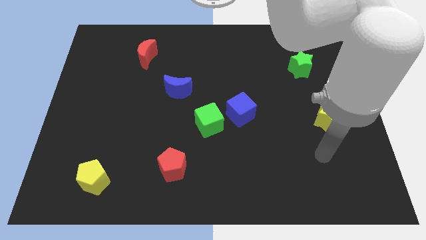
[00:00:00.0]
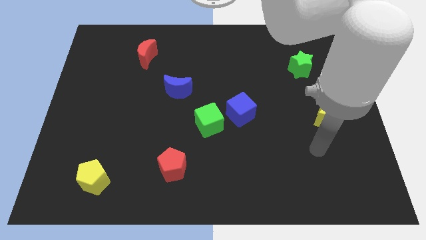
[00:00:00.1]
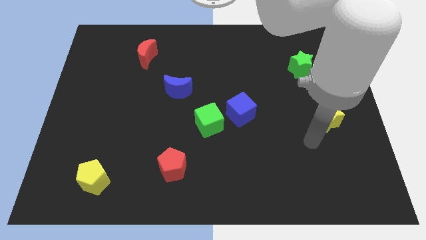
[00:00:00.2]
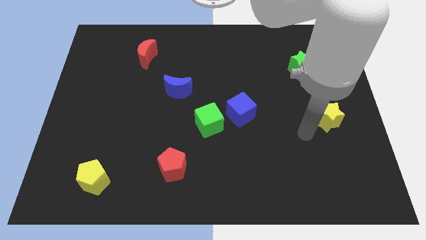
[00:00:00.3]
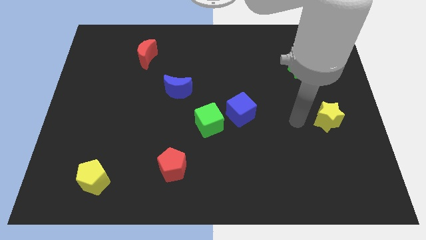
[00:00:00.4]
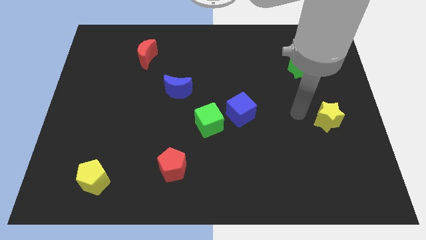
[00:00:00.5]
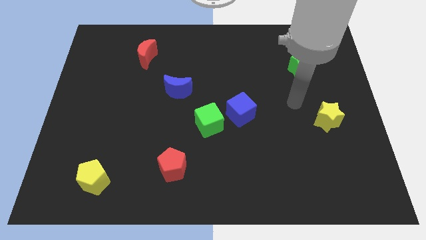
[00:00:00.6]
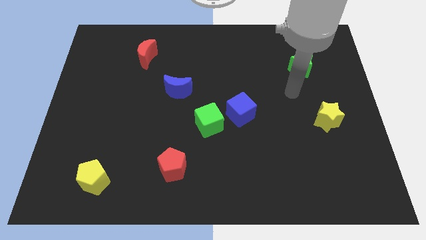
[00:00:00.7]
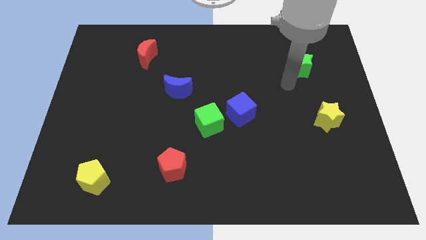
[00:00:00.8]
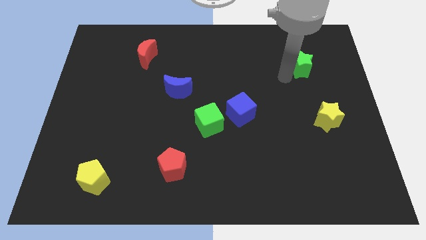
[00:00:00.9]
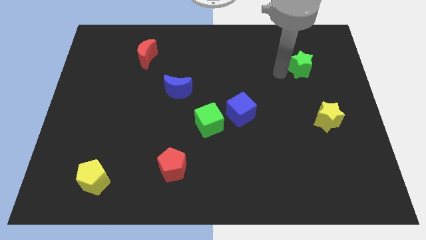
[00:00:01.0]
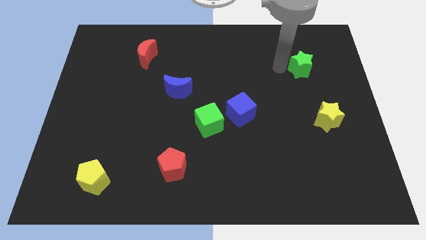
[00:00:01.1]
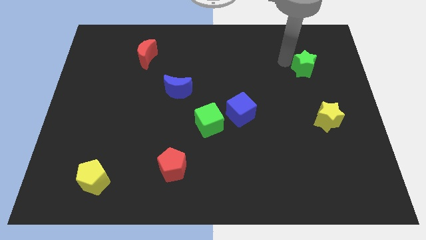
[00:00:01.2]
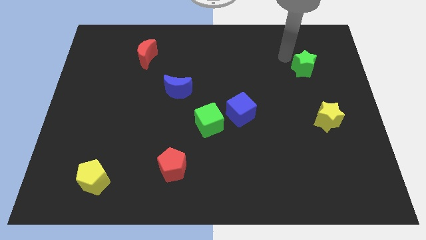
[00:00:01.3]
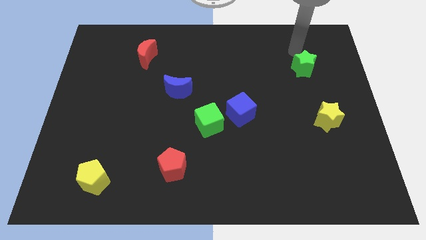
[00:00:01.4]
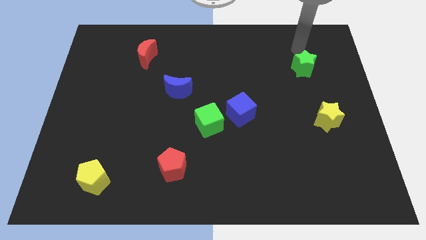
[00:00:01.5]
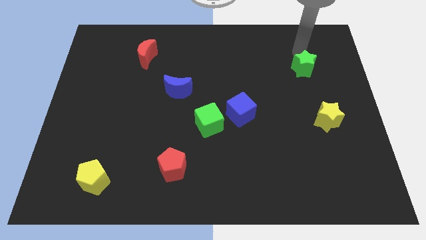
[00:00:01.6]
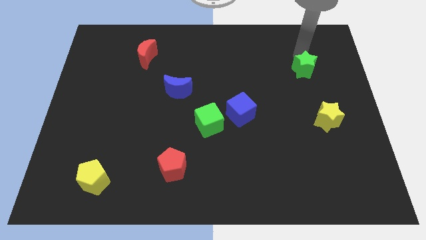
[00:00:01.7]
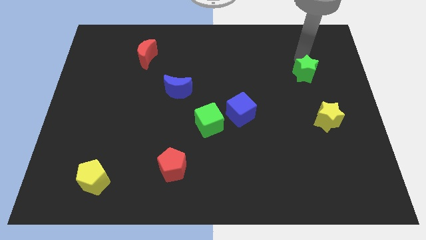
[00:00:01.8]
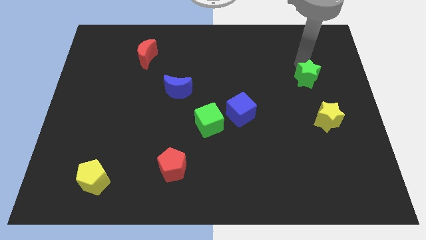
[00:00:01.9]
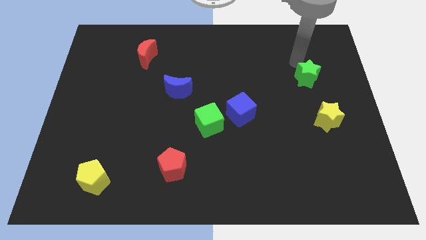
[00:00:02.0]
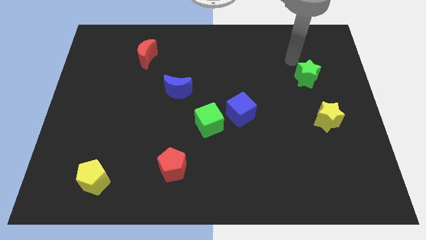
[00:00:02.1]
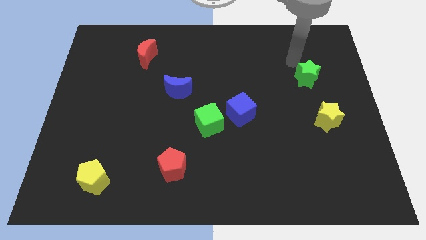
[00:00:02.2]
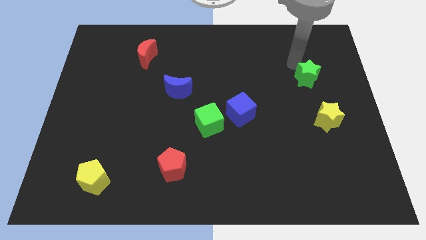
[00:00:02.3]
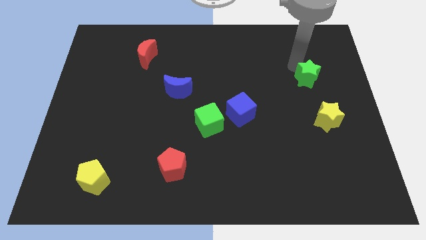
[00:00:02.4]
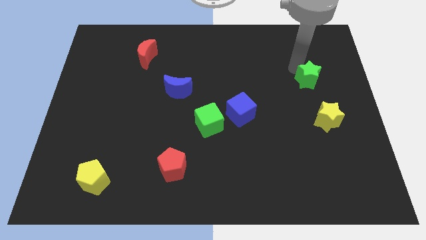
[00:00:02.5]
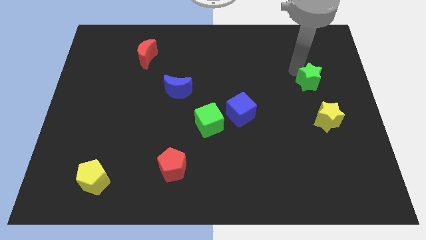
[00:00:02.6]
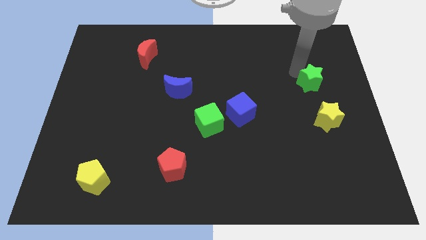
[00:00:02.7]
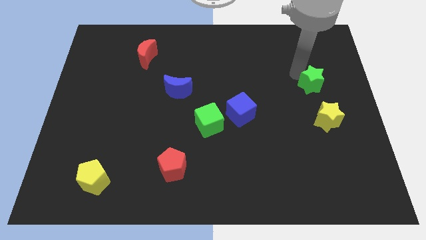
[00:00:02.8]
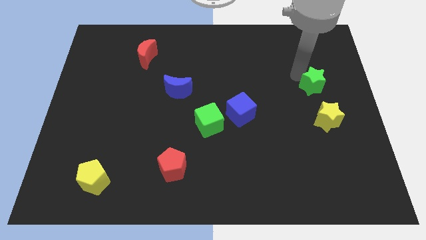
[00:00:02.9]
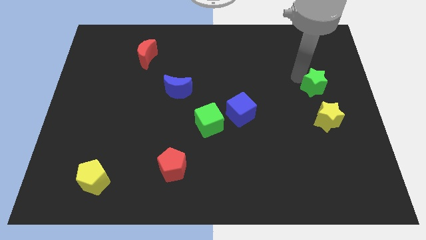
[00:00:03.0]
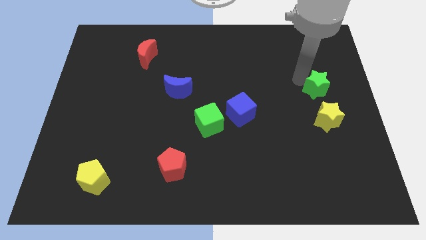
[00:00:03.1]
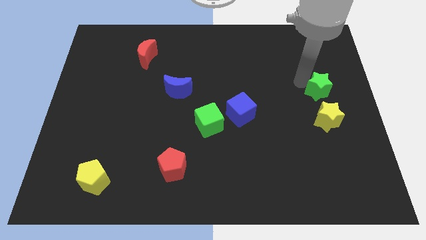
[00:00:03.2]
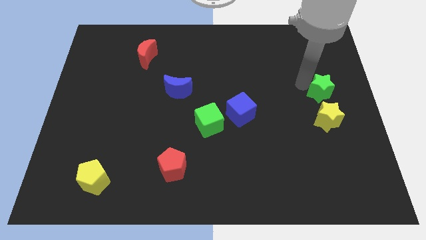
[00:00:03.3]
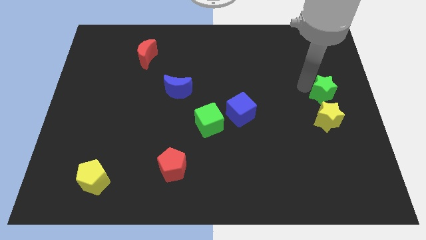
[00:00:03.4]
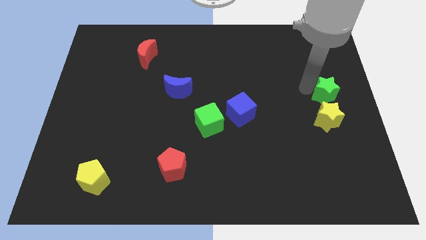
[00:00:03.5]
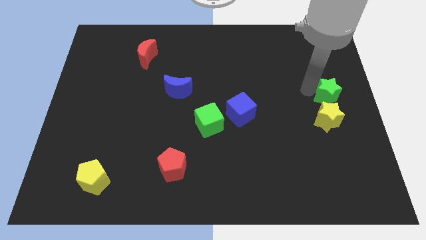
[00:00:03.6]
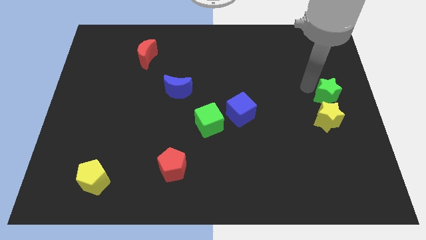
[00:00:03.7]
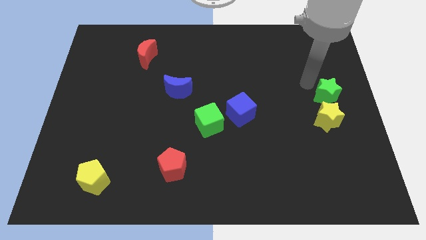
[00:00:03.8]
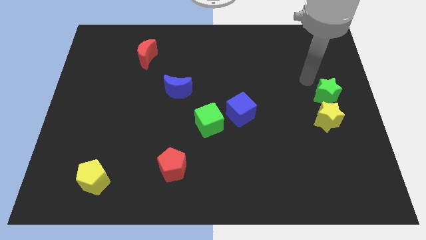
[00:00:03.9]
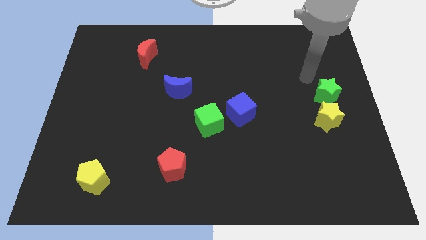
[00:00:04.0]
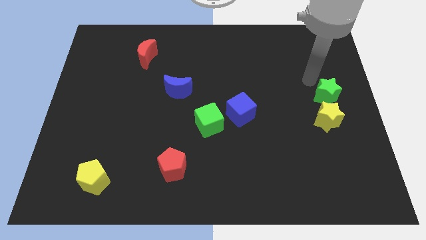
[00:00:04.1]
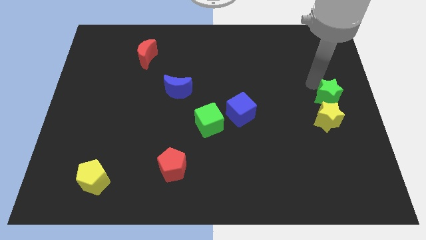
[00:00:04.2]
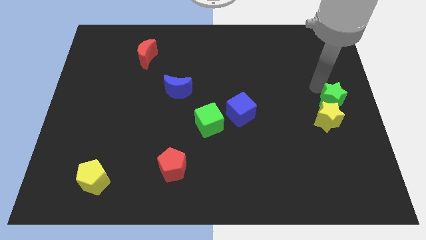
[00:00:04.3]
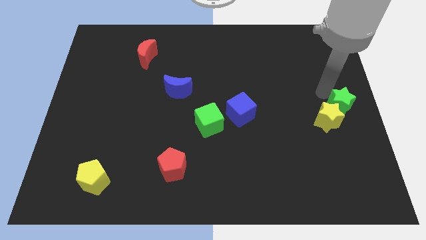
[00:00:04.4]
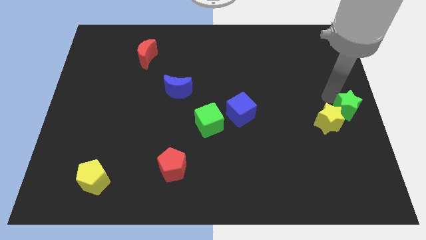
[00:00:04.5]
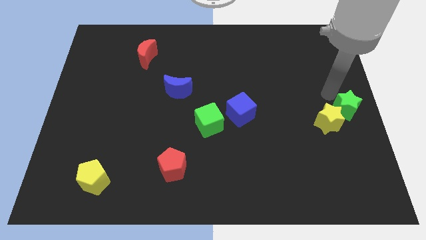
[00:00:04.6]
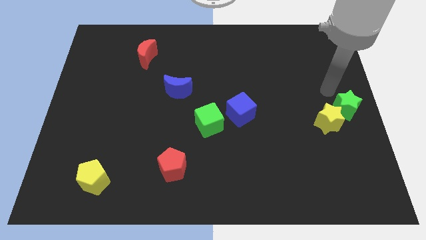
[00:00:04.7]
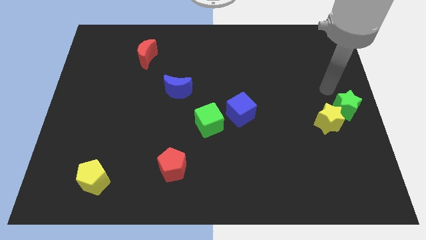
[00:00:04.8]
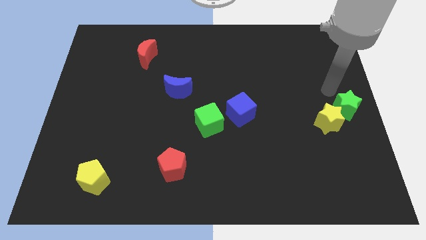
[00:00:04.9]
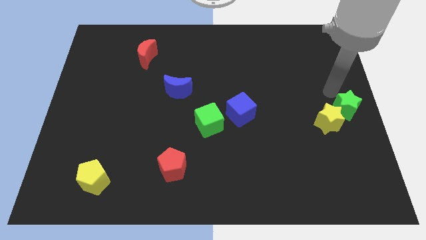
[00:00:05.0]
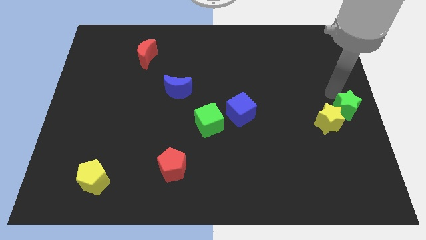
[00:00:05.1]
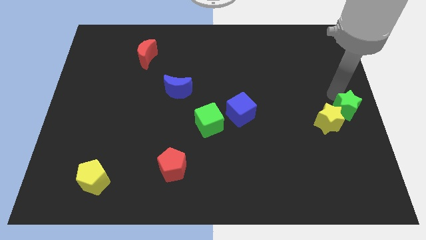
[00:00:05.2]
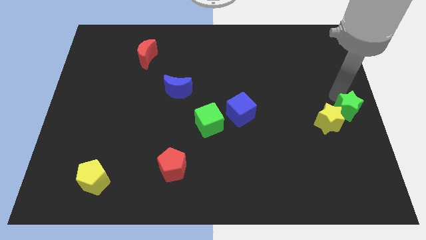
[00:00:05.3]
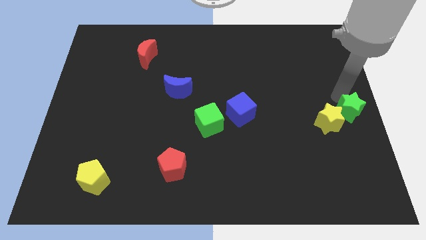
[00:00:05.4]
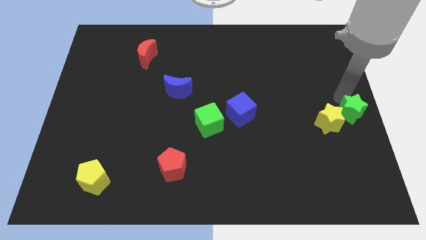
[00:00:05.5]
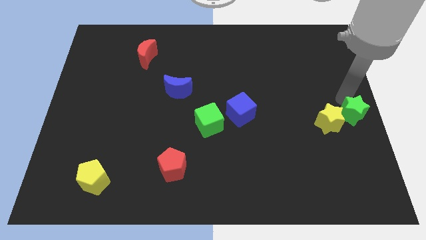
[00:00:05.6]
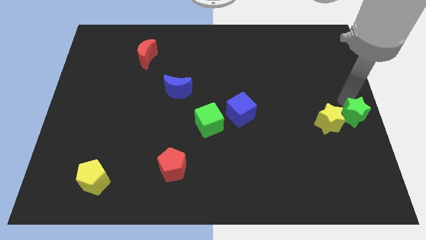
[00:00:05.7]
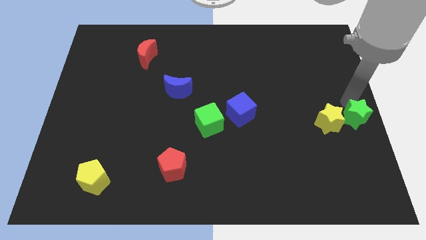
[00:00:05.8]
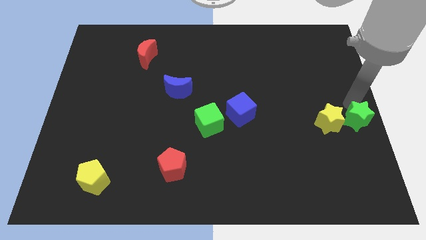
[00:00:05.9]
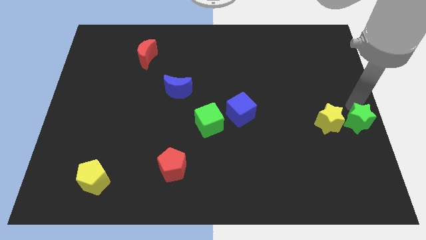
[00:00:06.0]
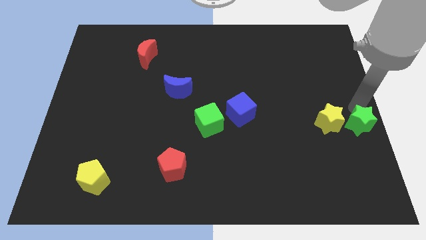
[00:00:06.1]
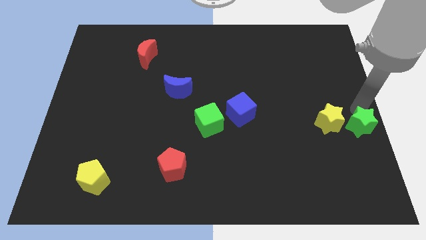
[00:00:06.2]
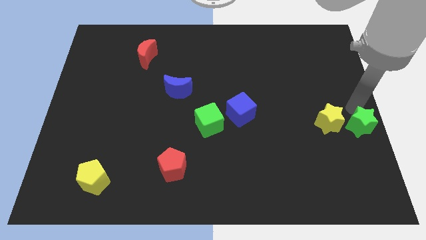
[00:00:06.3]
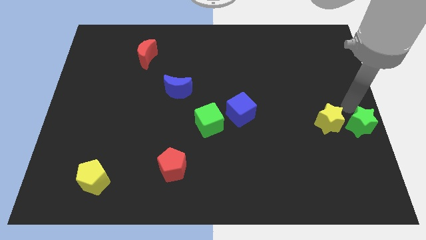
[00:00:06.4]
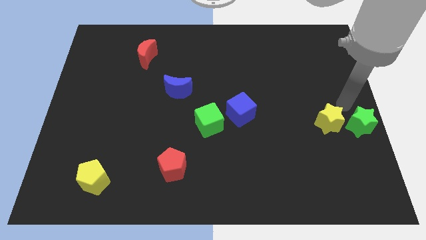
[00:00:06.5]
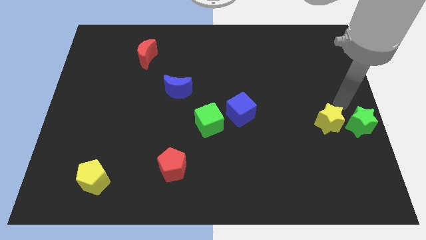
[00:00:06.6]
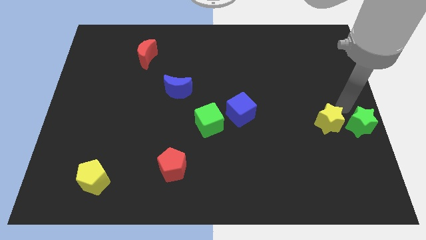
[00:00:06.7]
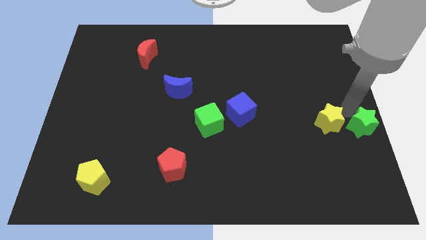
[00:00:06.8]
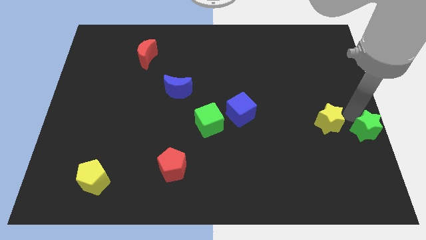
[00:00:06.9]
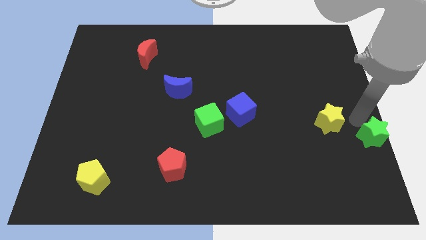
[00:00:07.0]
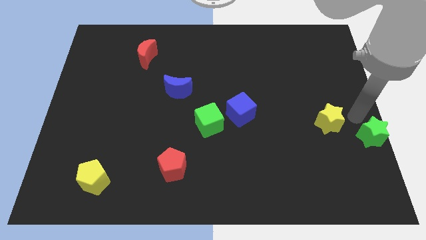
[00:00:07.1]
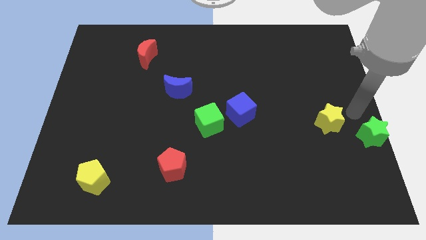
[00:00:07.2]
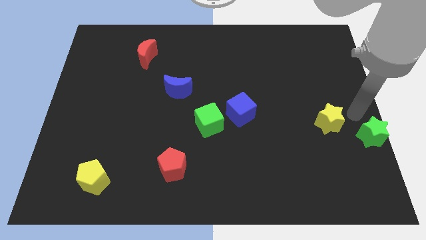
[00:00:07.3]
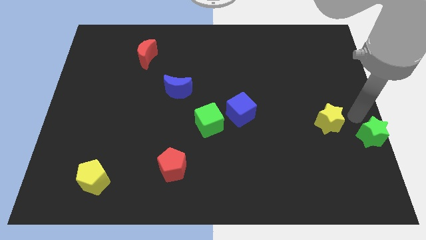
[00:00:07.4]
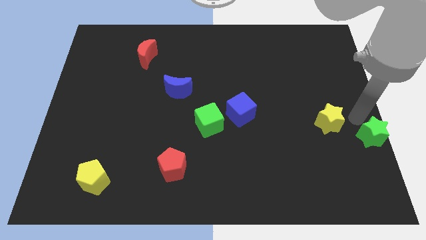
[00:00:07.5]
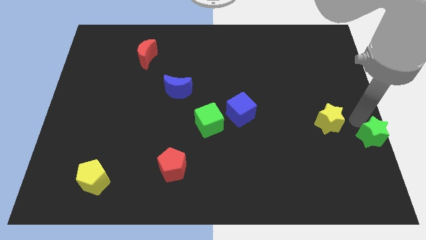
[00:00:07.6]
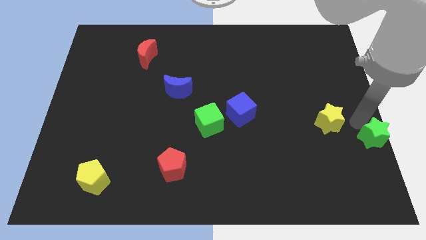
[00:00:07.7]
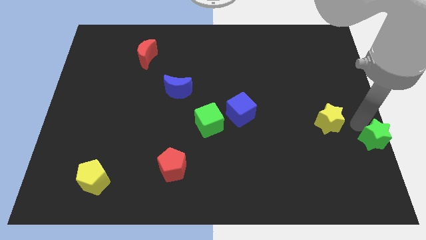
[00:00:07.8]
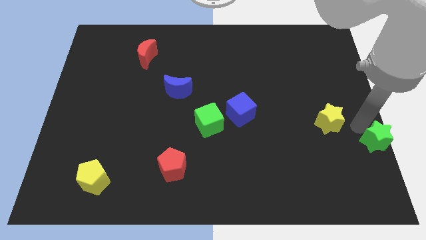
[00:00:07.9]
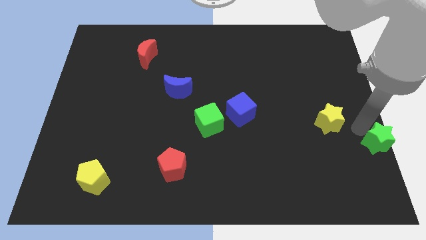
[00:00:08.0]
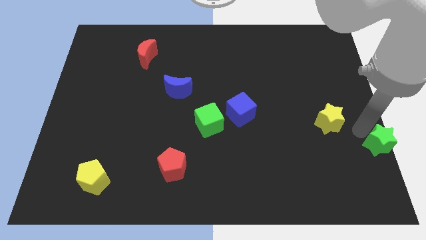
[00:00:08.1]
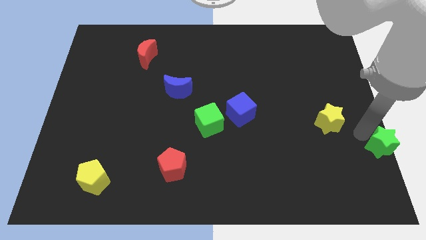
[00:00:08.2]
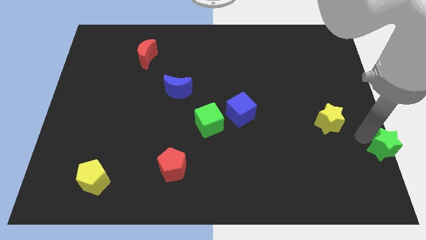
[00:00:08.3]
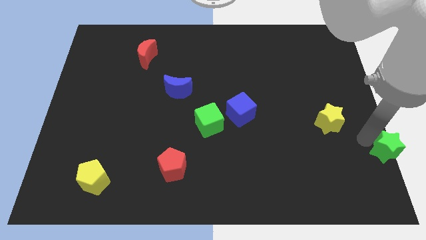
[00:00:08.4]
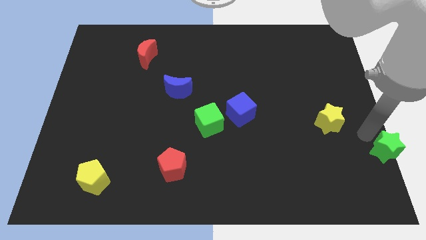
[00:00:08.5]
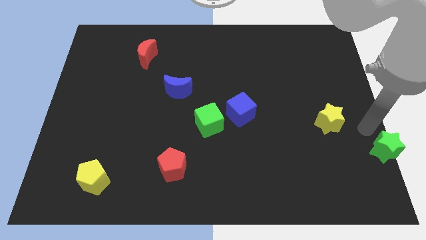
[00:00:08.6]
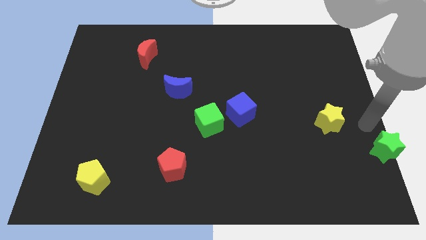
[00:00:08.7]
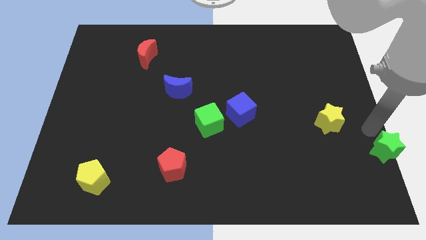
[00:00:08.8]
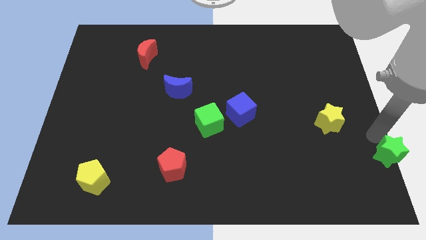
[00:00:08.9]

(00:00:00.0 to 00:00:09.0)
slide the green star to the bottom right of the board
